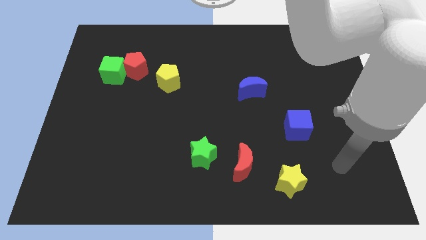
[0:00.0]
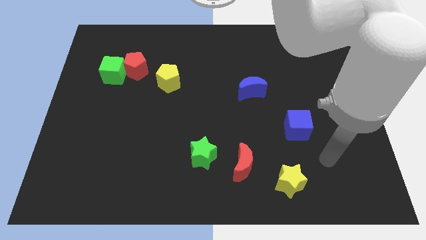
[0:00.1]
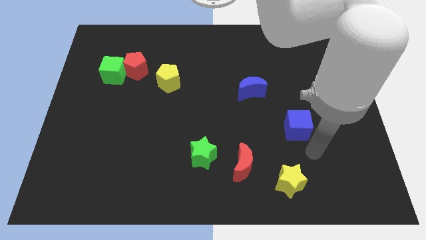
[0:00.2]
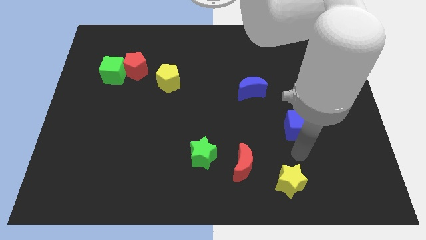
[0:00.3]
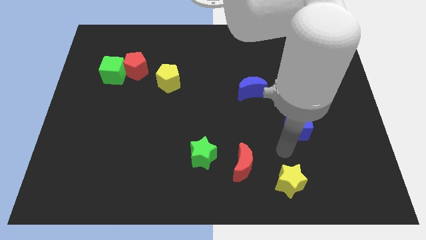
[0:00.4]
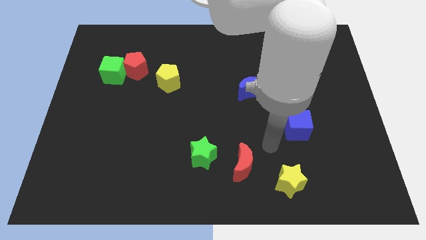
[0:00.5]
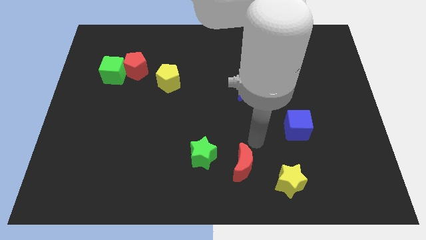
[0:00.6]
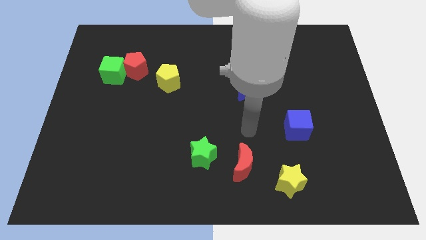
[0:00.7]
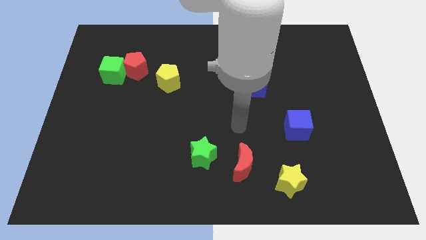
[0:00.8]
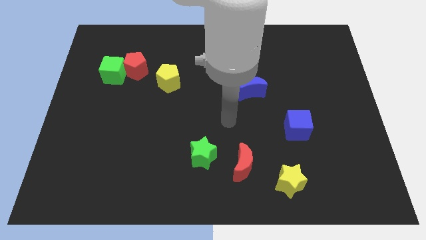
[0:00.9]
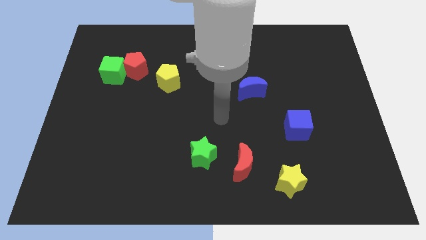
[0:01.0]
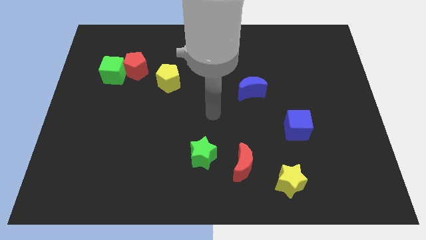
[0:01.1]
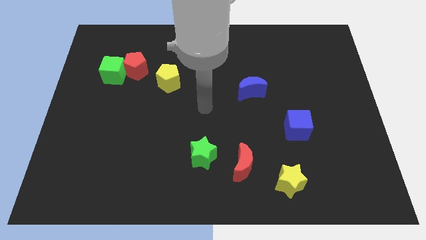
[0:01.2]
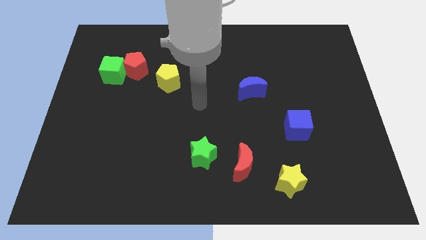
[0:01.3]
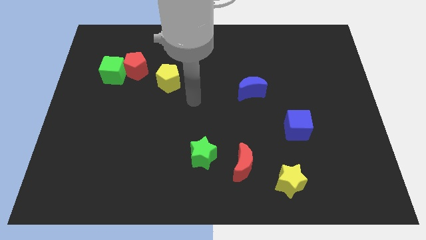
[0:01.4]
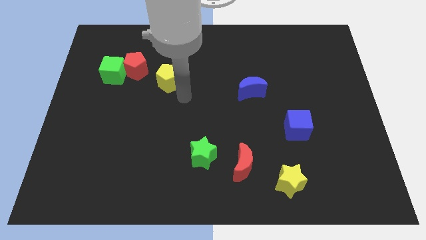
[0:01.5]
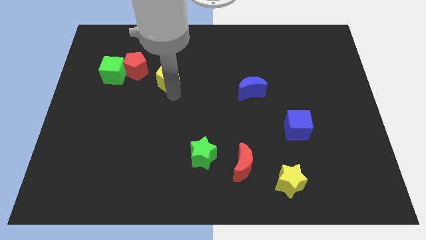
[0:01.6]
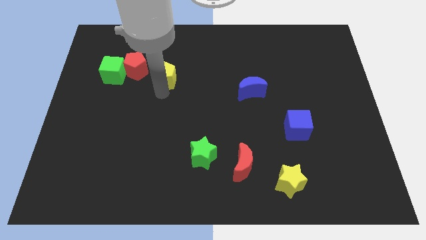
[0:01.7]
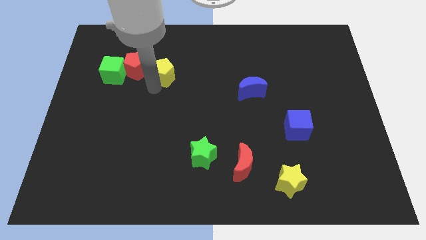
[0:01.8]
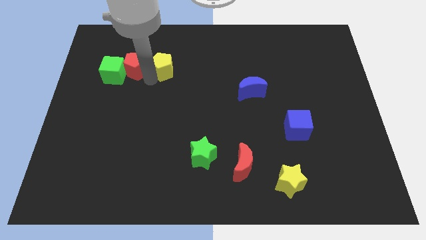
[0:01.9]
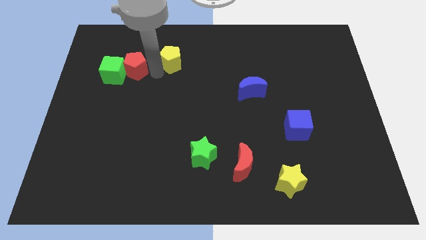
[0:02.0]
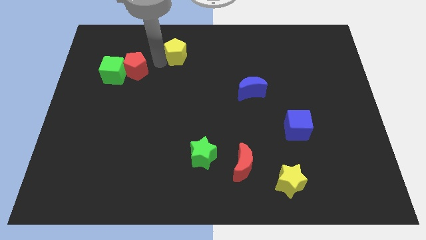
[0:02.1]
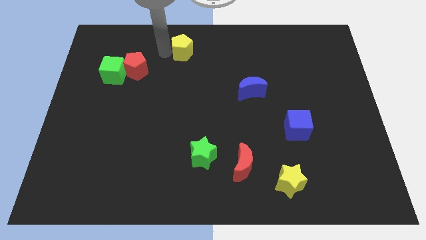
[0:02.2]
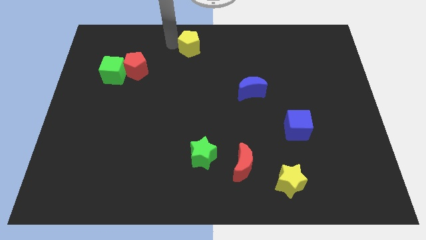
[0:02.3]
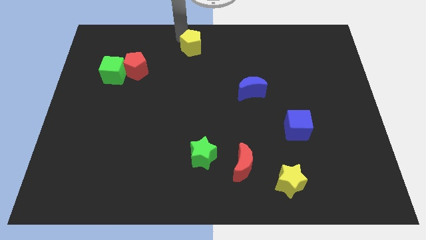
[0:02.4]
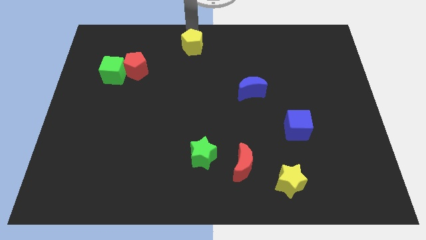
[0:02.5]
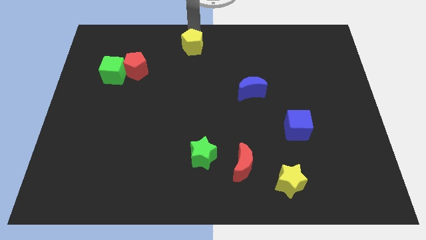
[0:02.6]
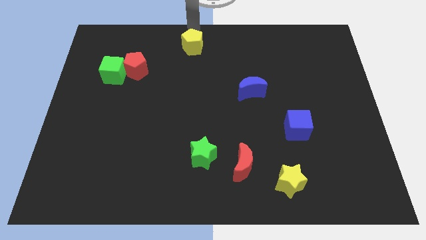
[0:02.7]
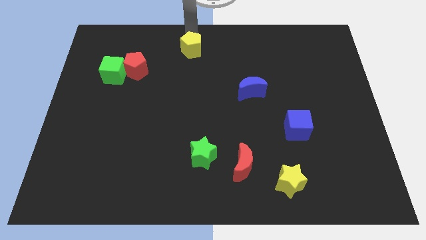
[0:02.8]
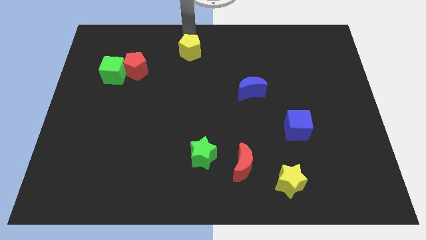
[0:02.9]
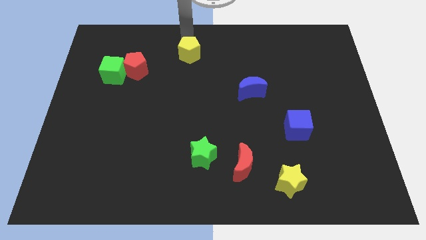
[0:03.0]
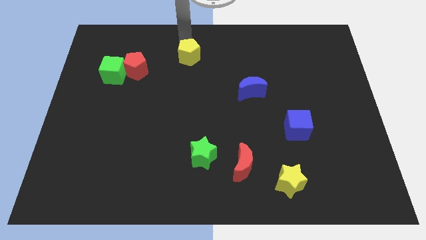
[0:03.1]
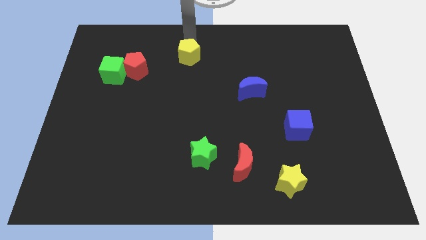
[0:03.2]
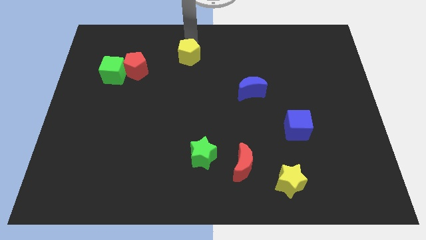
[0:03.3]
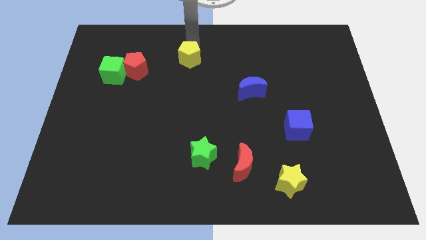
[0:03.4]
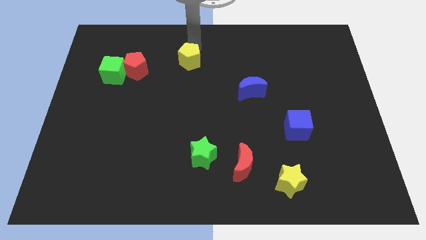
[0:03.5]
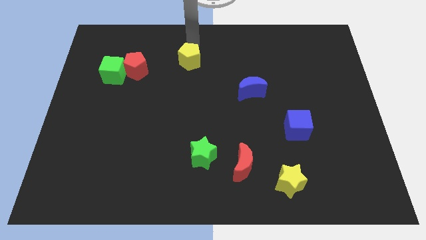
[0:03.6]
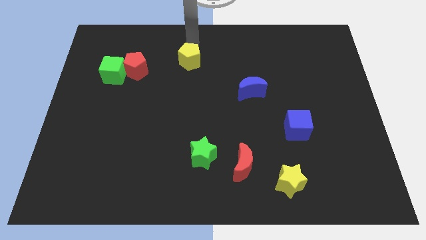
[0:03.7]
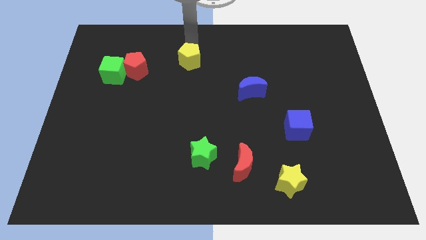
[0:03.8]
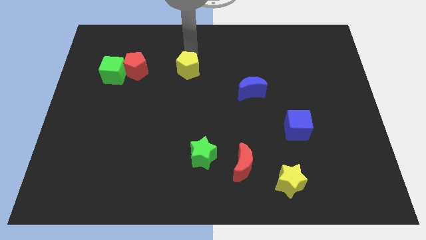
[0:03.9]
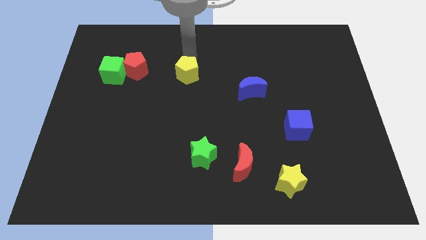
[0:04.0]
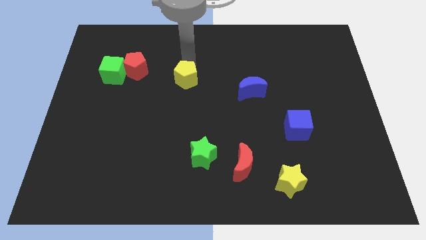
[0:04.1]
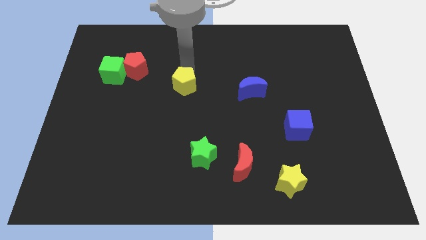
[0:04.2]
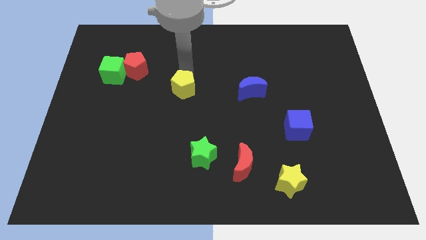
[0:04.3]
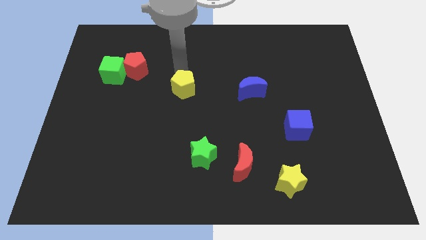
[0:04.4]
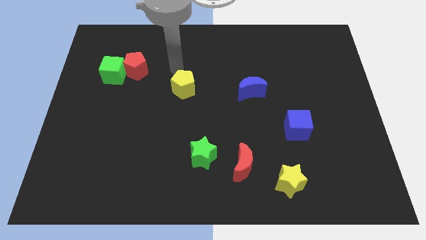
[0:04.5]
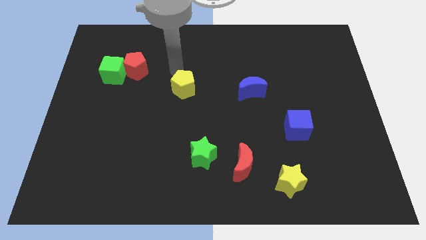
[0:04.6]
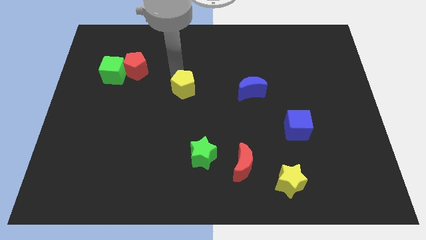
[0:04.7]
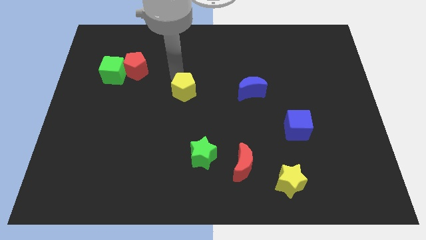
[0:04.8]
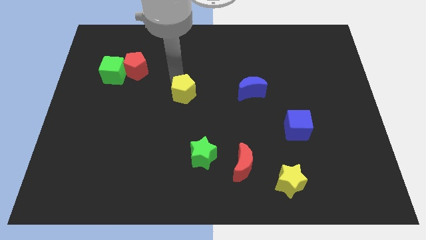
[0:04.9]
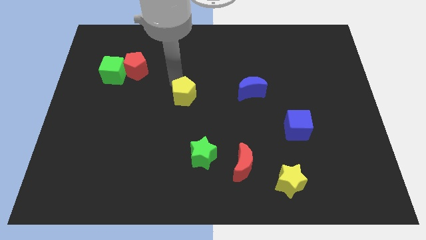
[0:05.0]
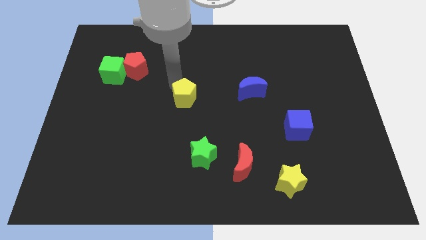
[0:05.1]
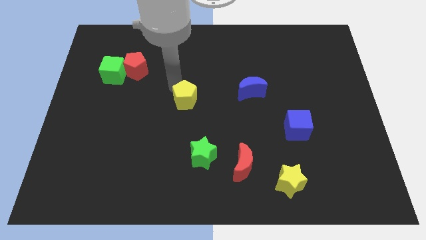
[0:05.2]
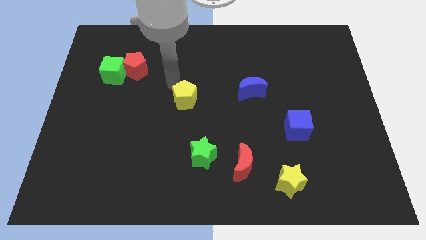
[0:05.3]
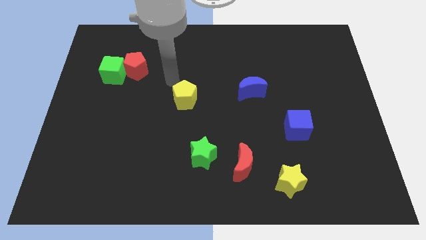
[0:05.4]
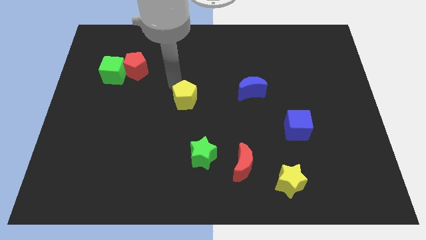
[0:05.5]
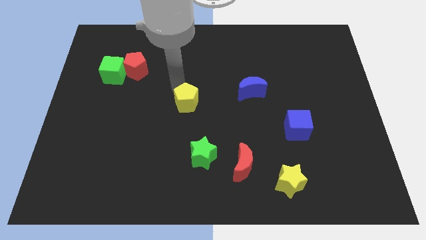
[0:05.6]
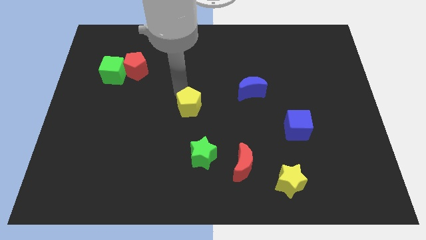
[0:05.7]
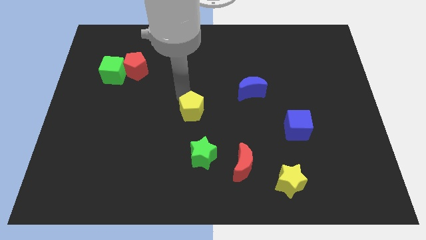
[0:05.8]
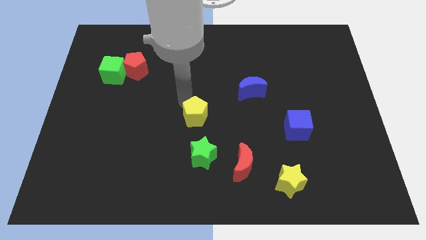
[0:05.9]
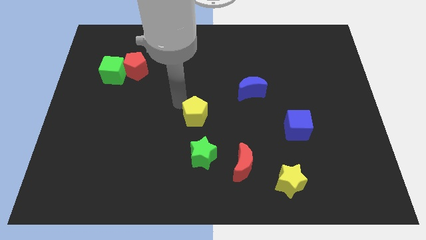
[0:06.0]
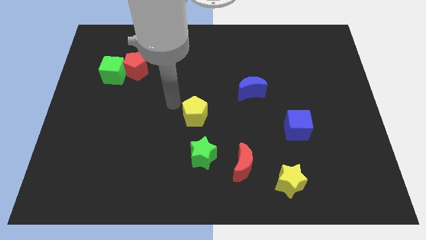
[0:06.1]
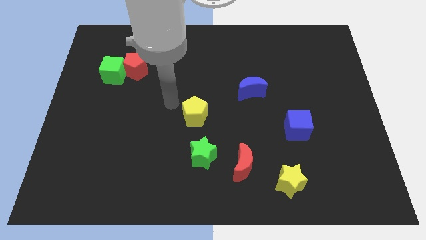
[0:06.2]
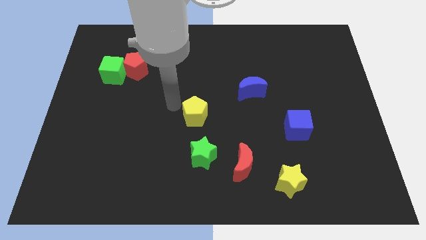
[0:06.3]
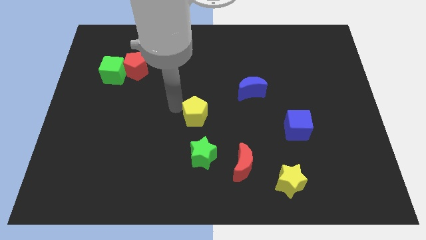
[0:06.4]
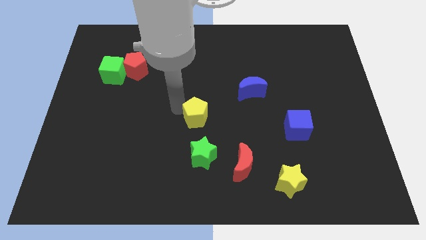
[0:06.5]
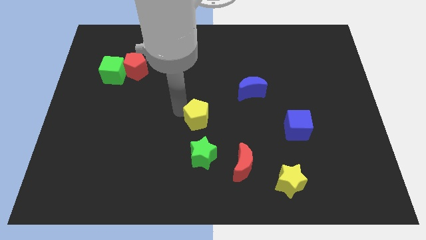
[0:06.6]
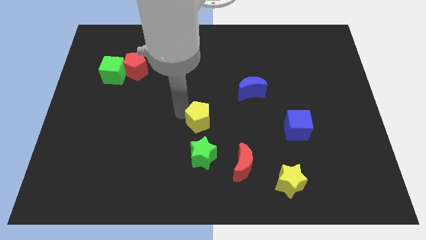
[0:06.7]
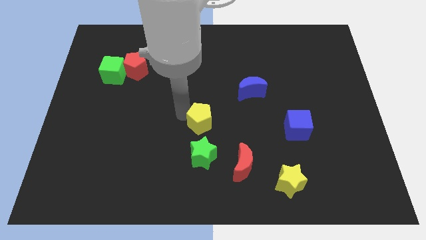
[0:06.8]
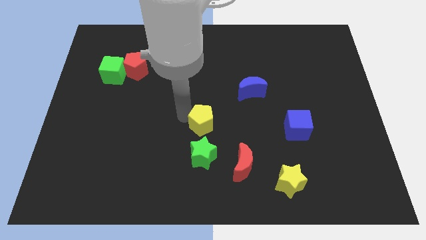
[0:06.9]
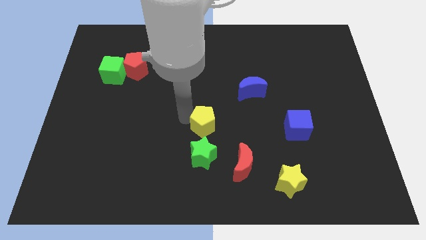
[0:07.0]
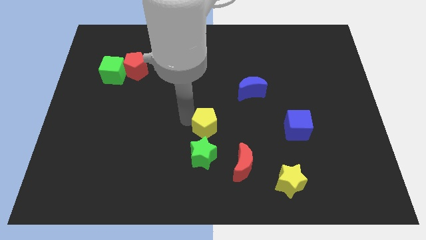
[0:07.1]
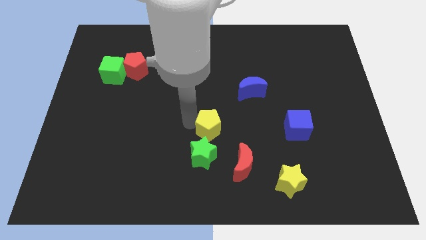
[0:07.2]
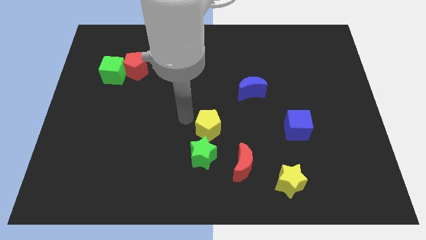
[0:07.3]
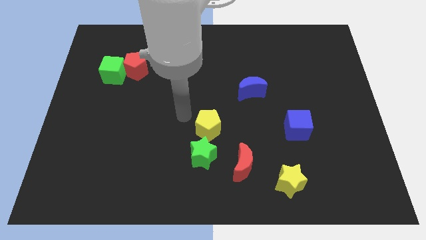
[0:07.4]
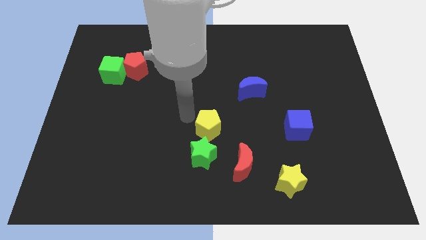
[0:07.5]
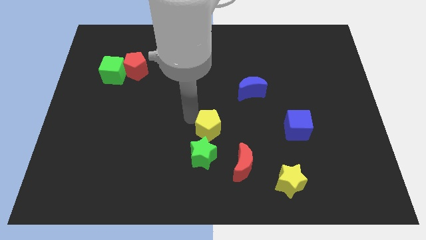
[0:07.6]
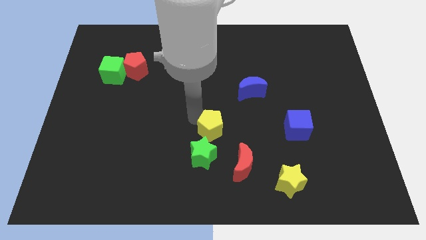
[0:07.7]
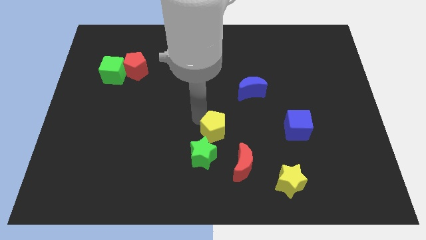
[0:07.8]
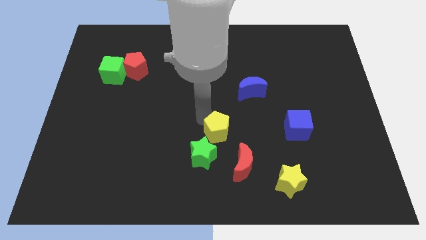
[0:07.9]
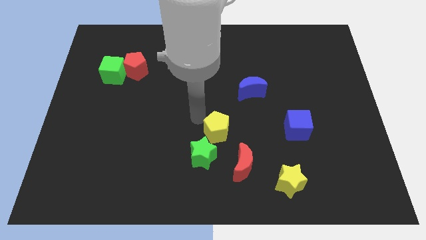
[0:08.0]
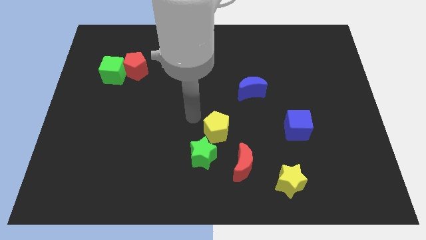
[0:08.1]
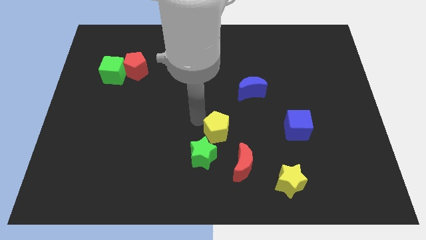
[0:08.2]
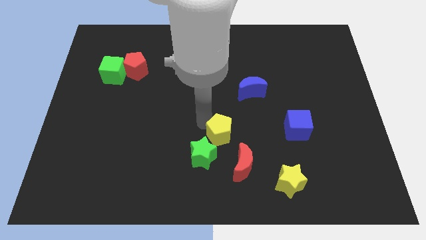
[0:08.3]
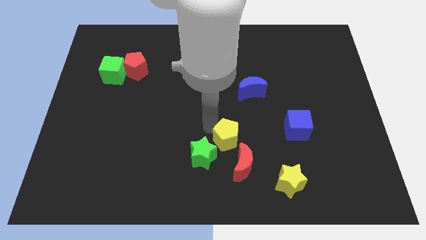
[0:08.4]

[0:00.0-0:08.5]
push the yellow pentagon down and then right
